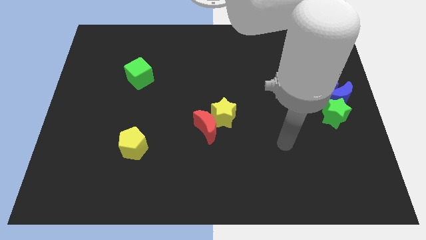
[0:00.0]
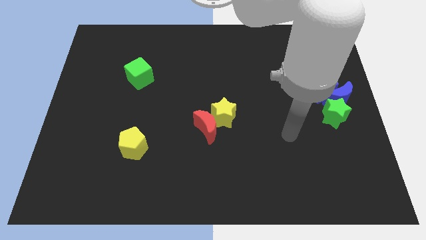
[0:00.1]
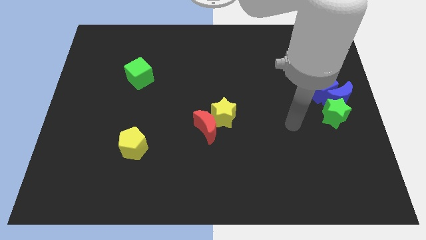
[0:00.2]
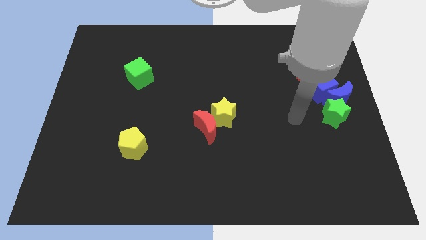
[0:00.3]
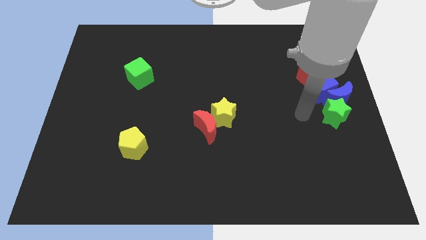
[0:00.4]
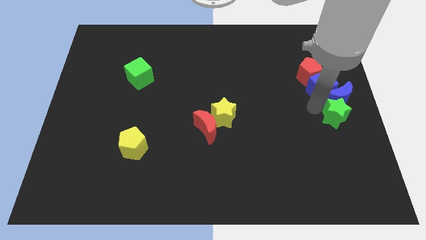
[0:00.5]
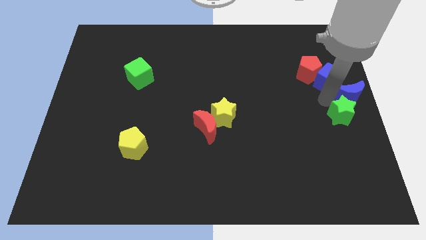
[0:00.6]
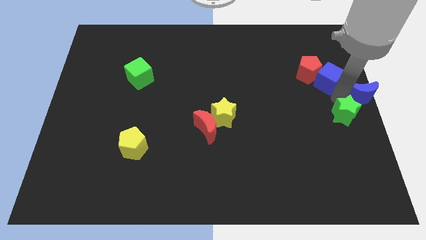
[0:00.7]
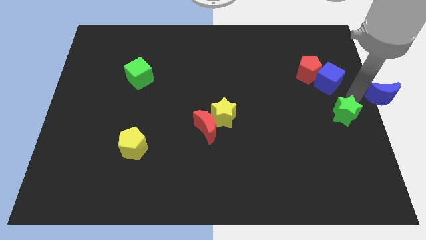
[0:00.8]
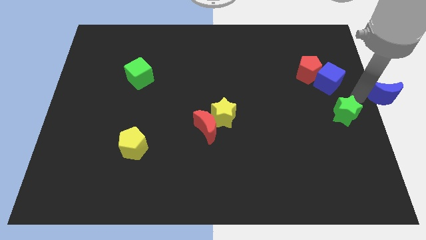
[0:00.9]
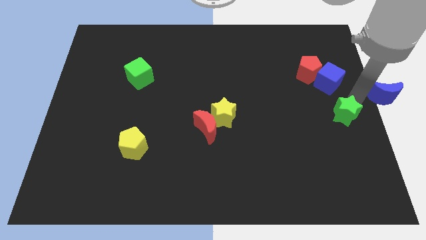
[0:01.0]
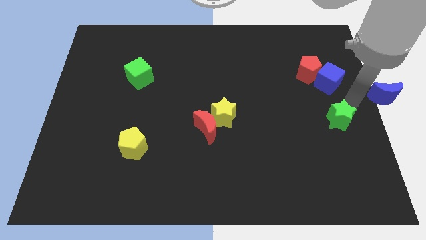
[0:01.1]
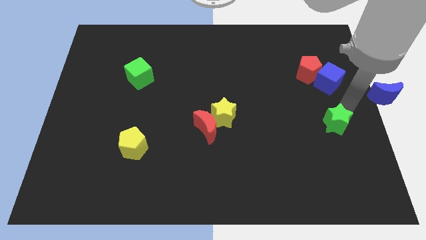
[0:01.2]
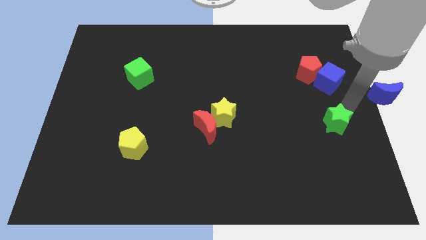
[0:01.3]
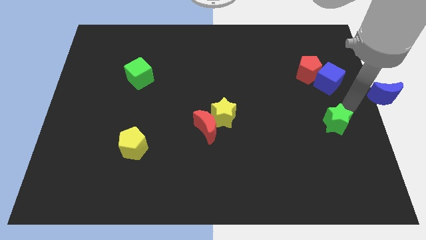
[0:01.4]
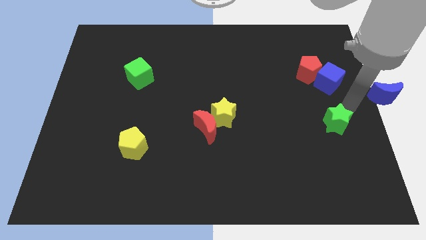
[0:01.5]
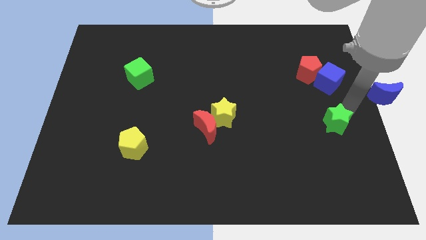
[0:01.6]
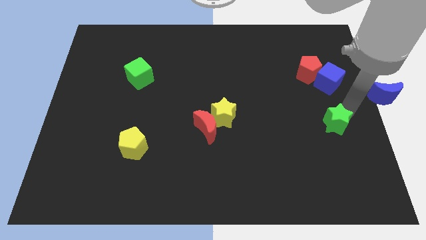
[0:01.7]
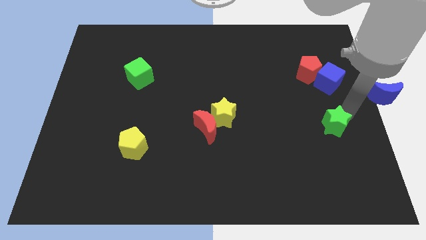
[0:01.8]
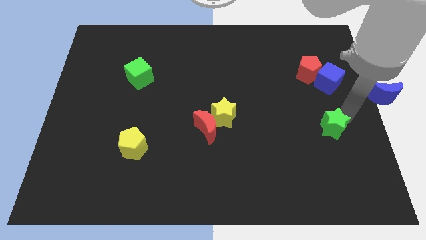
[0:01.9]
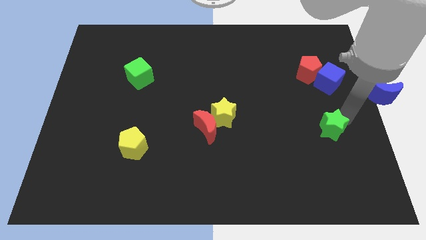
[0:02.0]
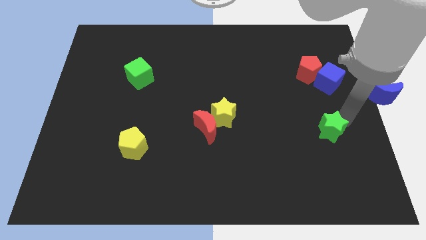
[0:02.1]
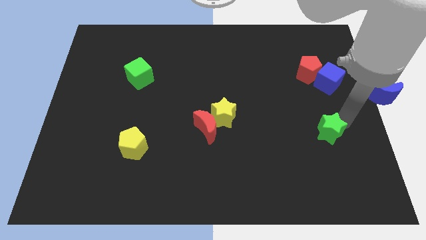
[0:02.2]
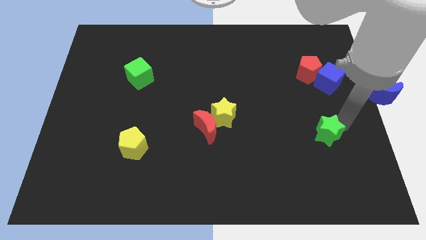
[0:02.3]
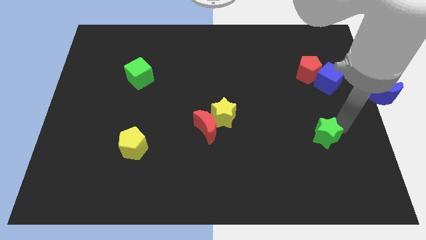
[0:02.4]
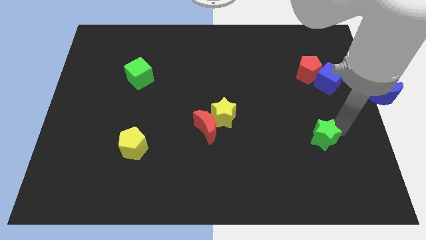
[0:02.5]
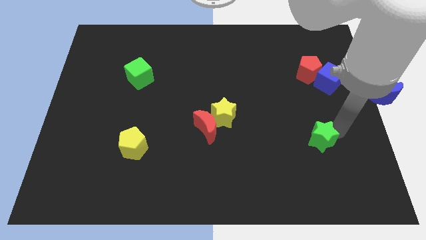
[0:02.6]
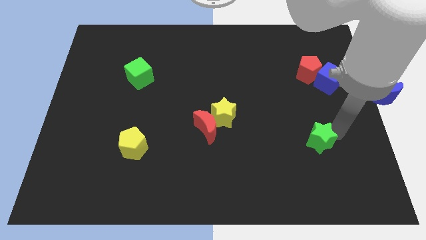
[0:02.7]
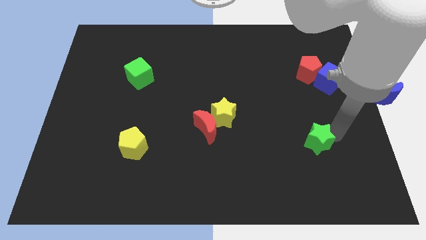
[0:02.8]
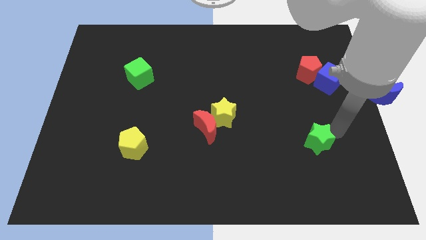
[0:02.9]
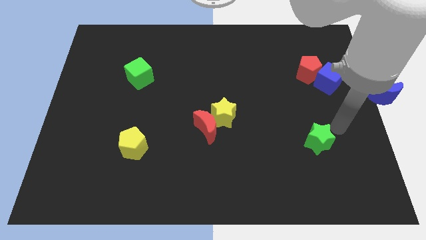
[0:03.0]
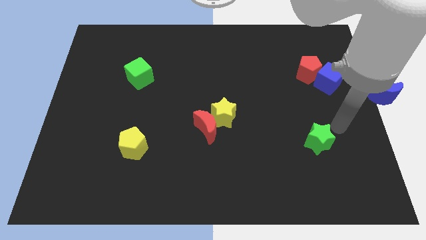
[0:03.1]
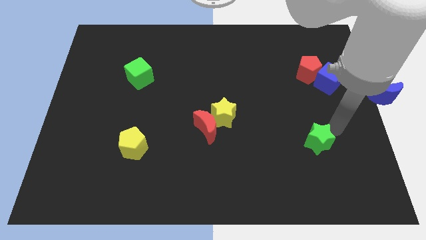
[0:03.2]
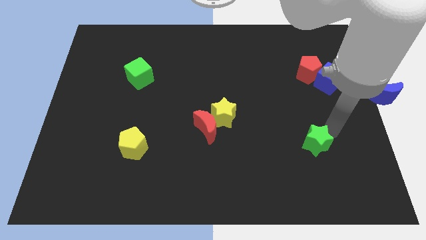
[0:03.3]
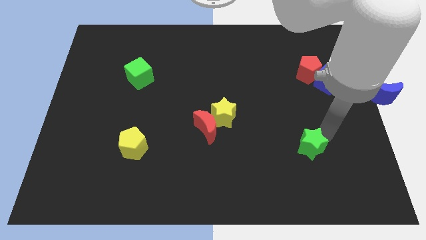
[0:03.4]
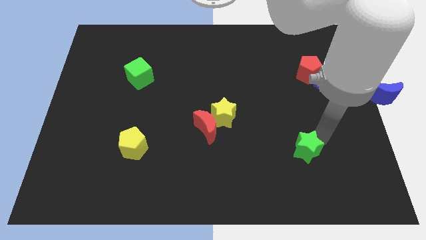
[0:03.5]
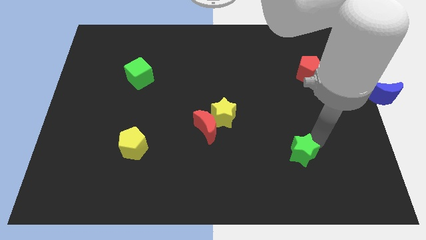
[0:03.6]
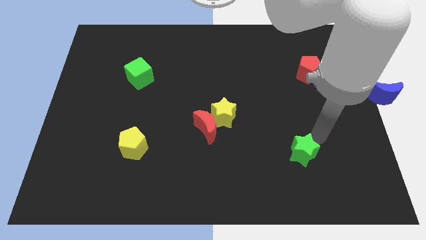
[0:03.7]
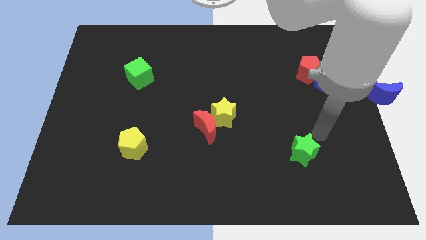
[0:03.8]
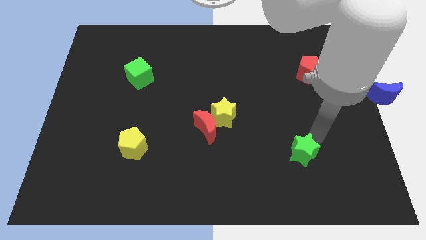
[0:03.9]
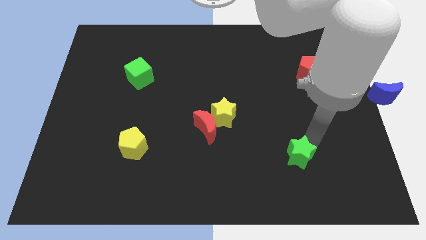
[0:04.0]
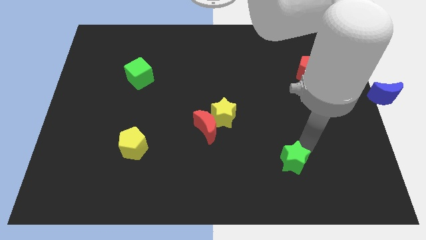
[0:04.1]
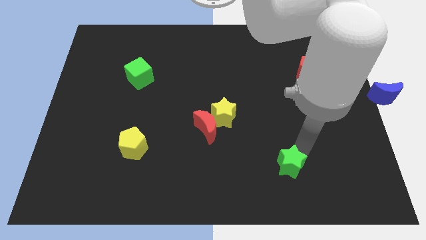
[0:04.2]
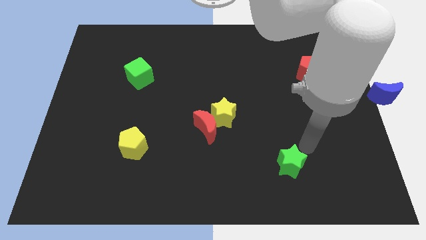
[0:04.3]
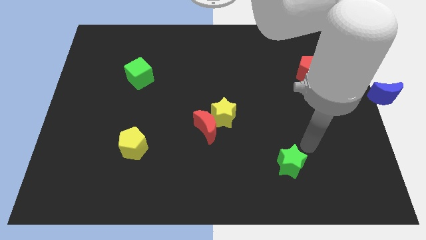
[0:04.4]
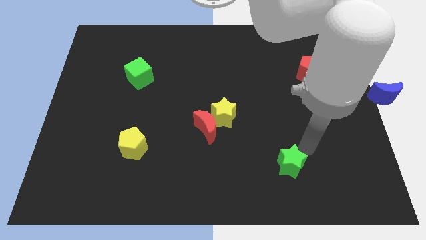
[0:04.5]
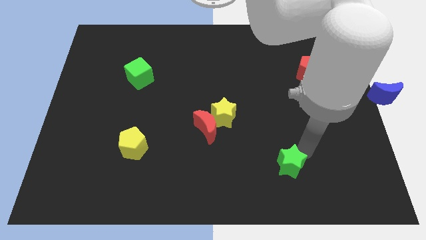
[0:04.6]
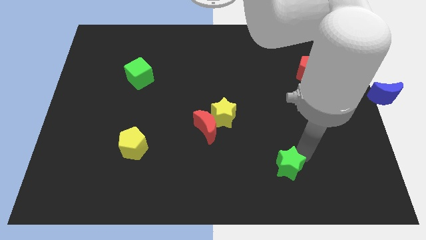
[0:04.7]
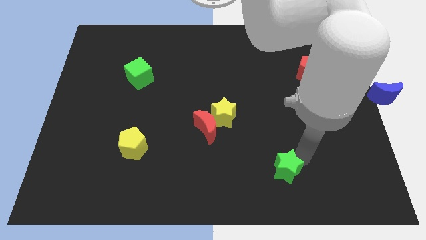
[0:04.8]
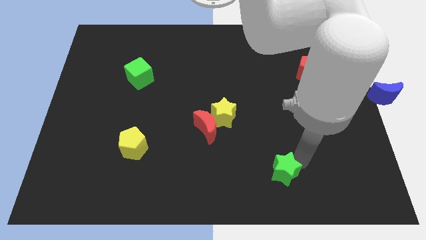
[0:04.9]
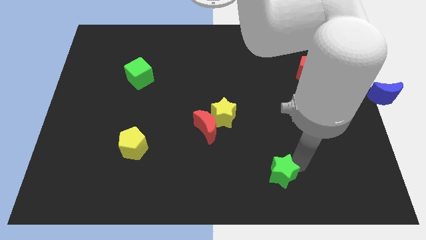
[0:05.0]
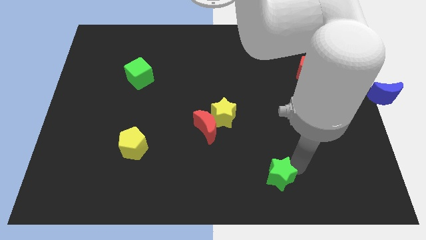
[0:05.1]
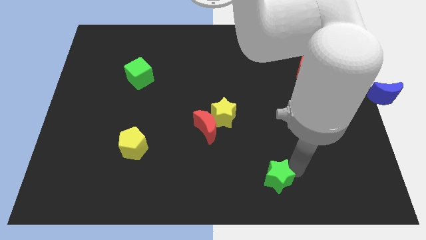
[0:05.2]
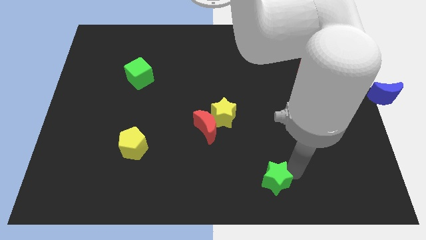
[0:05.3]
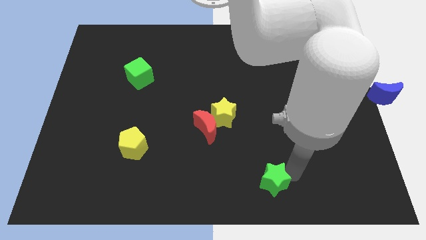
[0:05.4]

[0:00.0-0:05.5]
slide the green star to the bottom

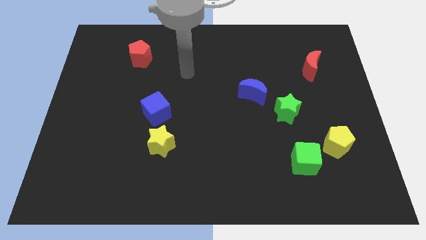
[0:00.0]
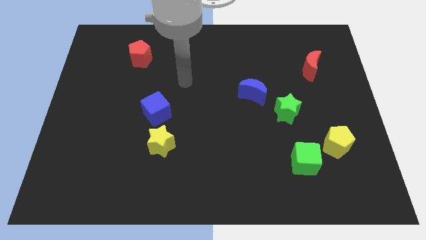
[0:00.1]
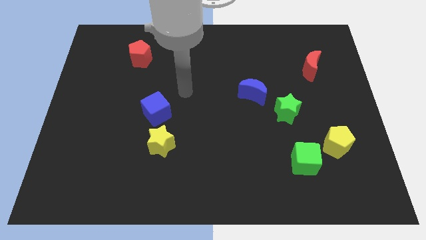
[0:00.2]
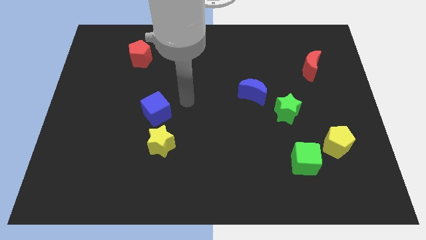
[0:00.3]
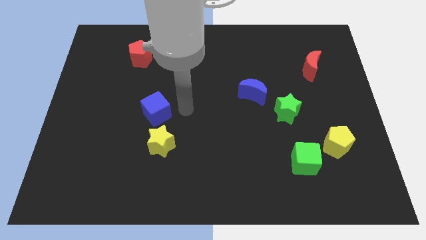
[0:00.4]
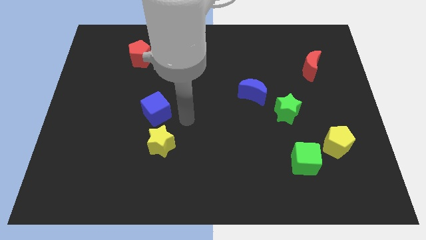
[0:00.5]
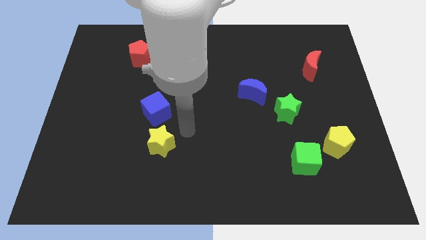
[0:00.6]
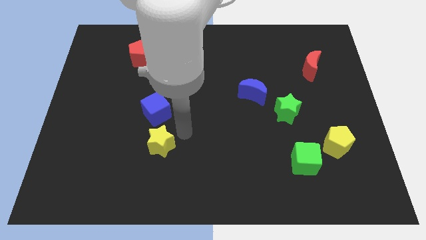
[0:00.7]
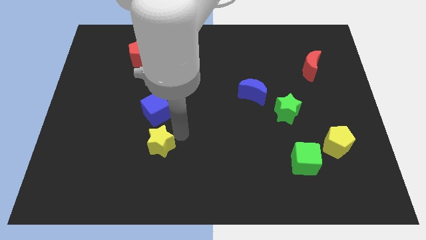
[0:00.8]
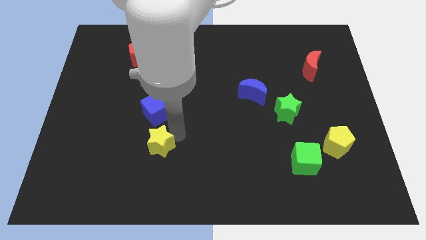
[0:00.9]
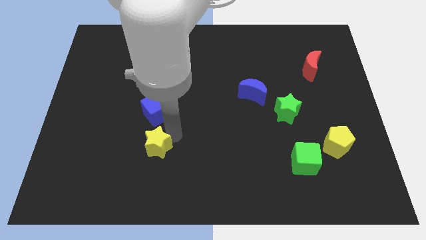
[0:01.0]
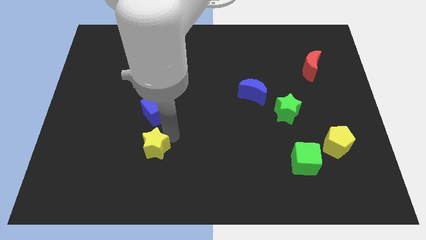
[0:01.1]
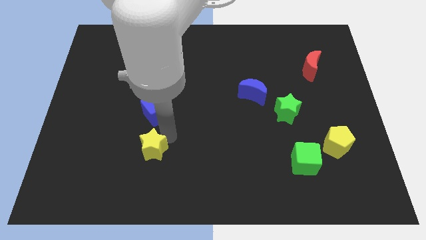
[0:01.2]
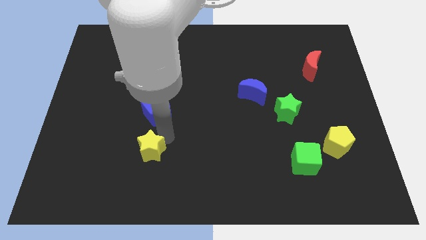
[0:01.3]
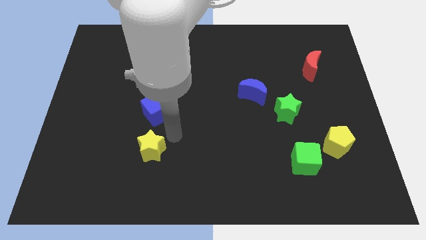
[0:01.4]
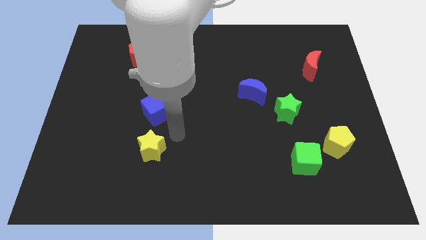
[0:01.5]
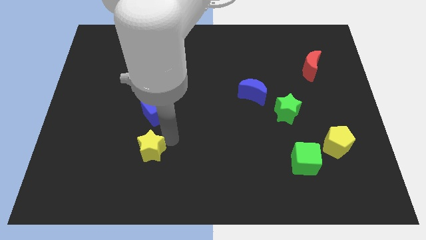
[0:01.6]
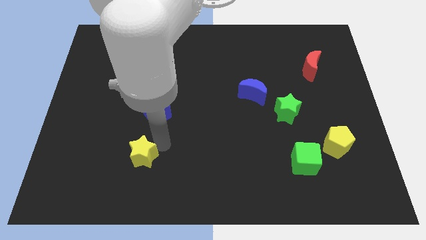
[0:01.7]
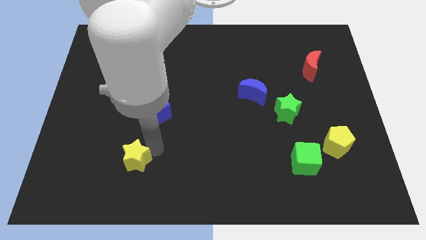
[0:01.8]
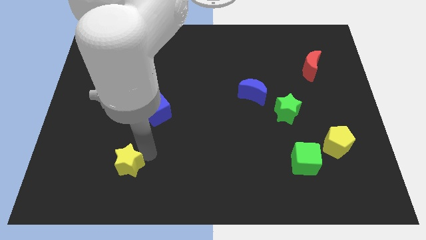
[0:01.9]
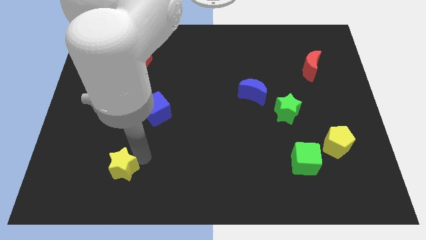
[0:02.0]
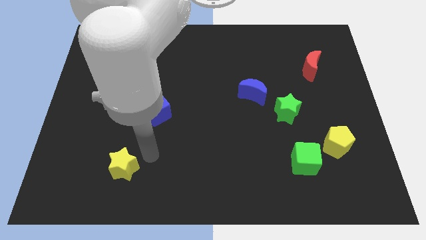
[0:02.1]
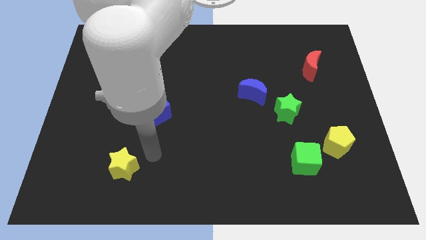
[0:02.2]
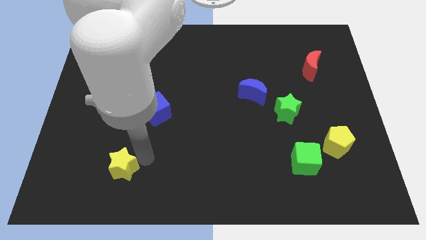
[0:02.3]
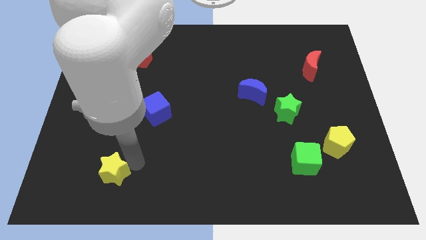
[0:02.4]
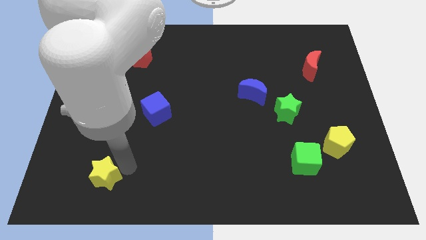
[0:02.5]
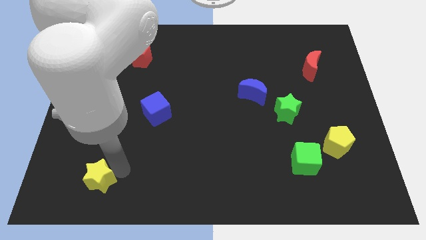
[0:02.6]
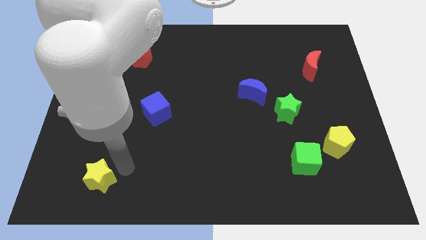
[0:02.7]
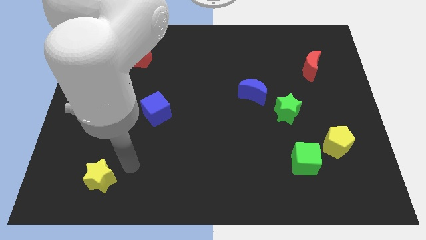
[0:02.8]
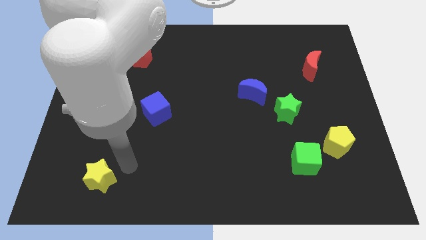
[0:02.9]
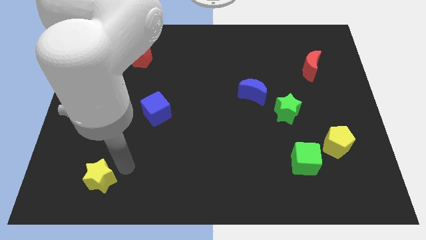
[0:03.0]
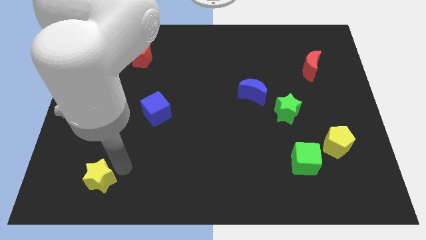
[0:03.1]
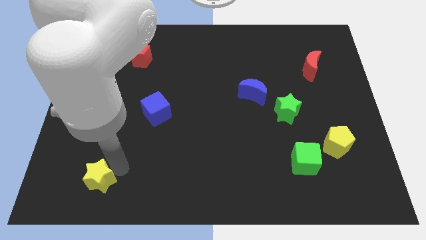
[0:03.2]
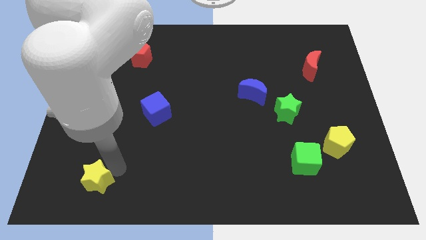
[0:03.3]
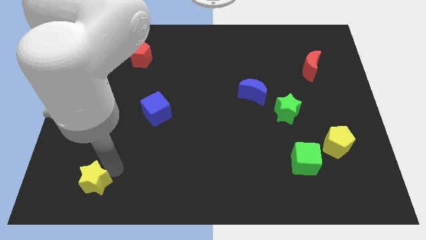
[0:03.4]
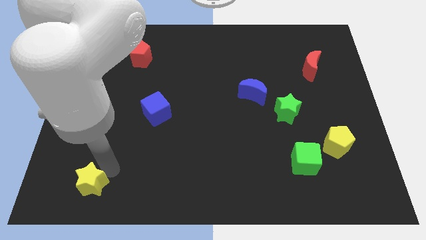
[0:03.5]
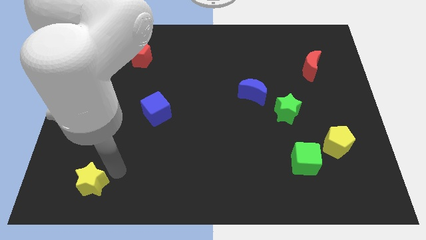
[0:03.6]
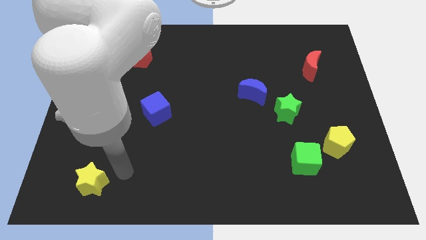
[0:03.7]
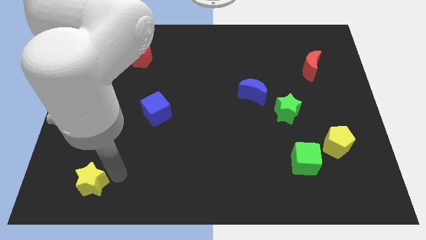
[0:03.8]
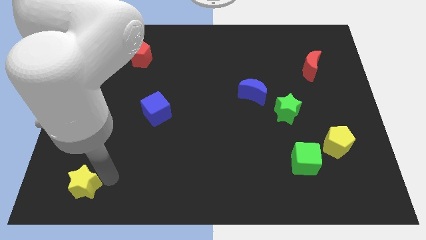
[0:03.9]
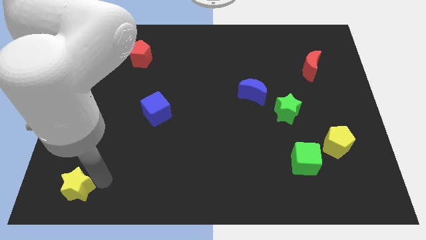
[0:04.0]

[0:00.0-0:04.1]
move the yellow star to the lower left corner
